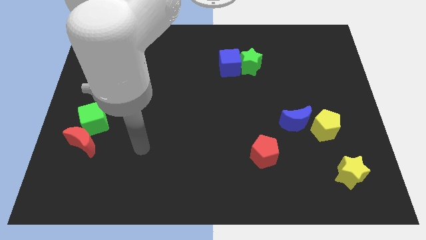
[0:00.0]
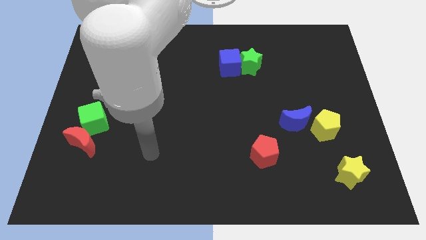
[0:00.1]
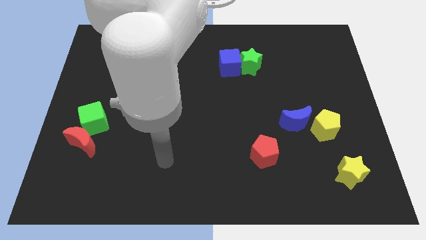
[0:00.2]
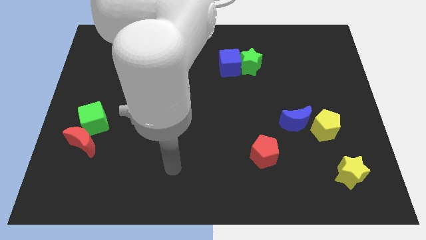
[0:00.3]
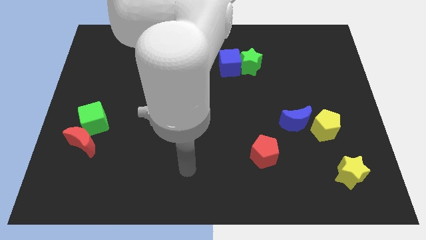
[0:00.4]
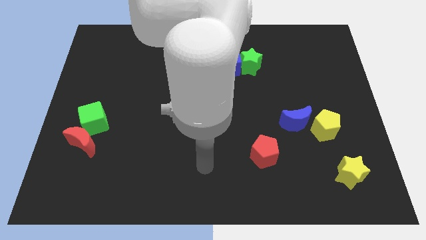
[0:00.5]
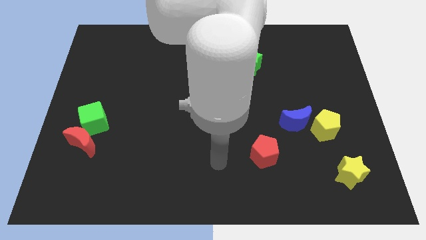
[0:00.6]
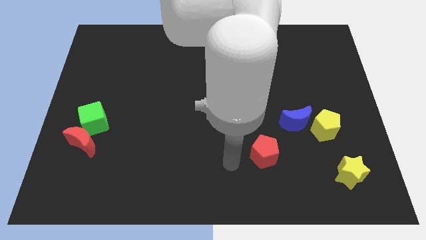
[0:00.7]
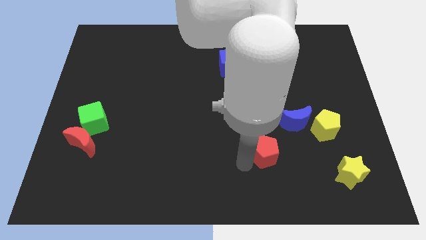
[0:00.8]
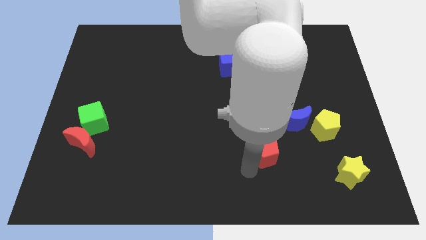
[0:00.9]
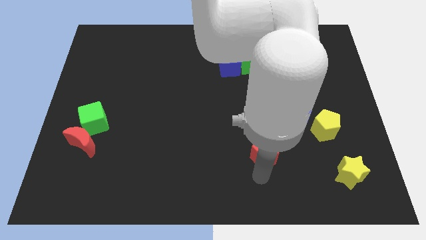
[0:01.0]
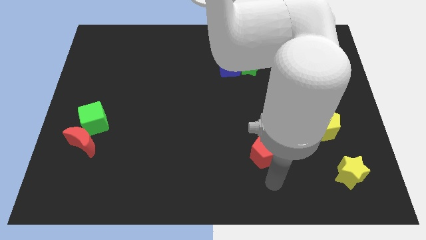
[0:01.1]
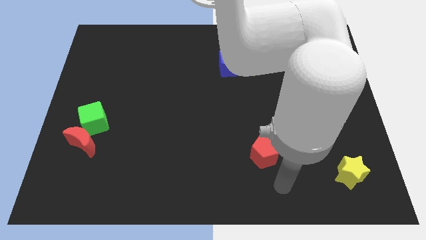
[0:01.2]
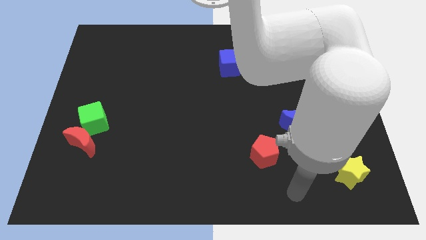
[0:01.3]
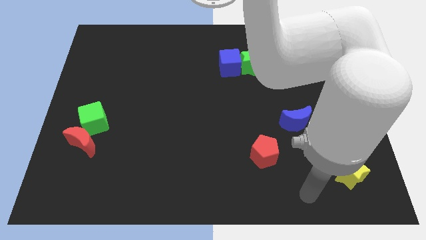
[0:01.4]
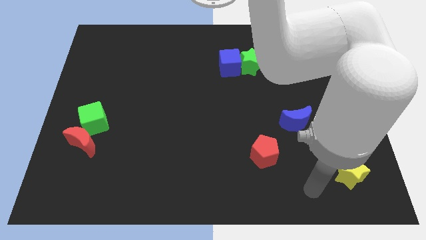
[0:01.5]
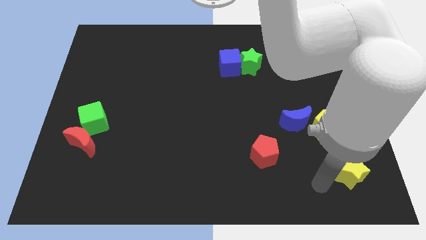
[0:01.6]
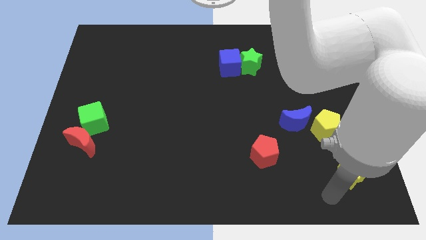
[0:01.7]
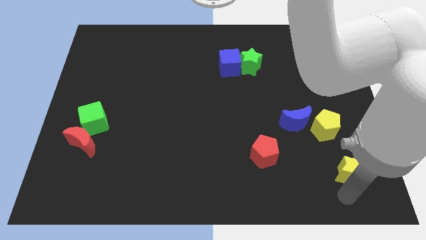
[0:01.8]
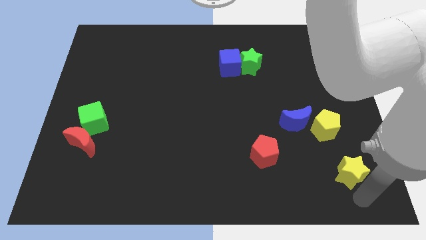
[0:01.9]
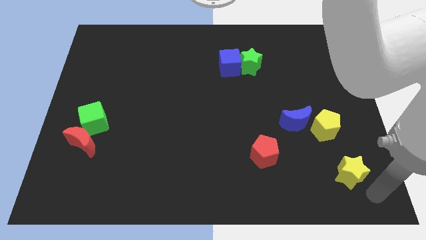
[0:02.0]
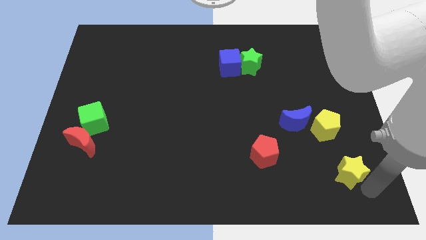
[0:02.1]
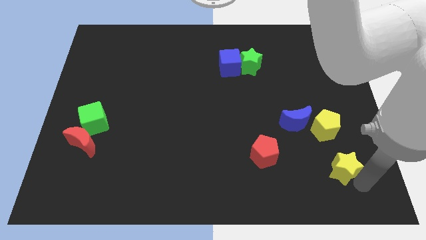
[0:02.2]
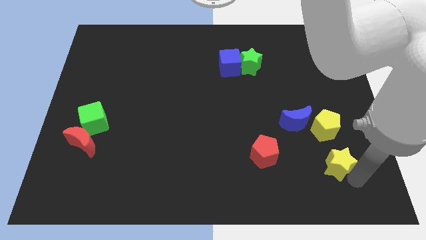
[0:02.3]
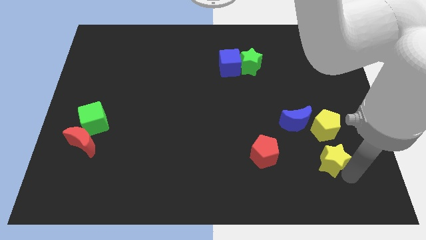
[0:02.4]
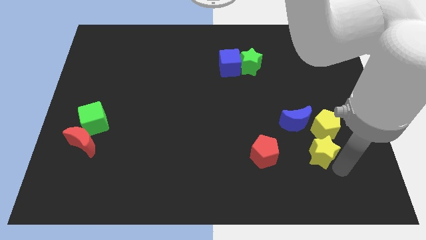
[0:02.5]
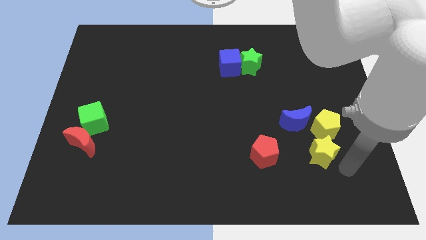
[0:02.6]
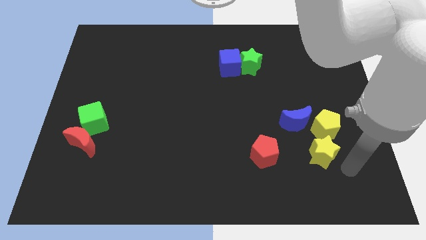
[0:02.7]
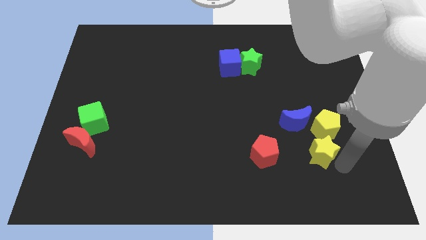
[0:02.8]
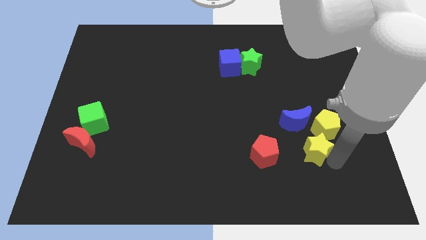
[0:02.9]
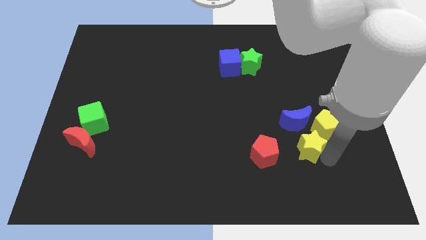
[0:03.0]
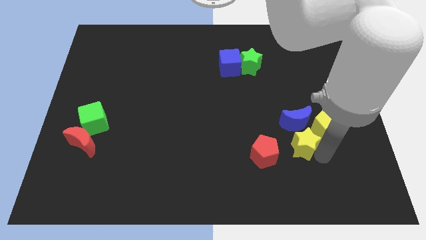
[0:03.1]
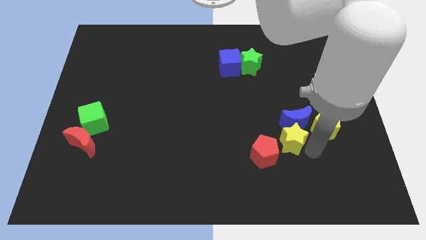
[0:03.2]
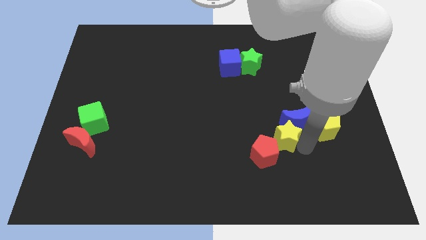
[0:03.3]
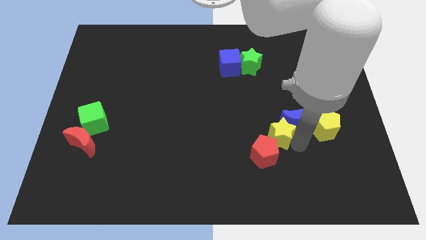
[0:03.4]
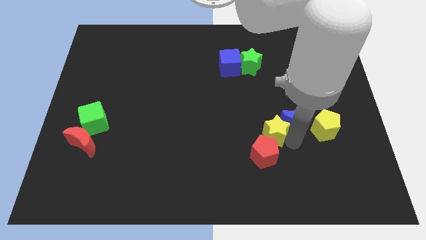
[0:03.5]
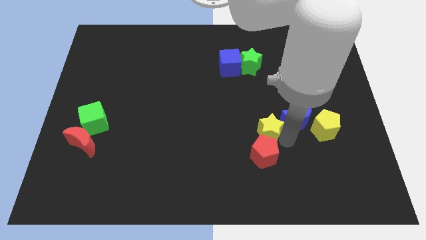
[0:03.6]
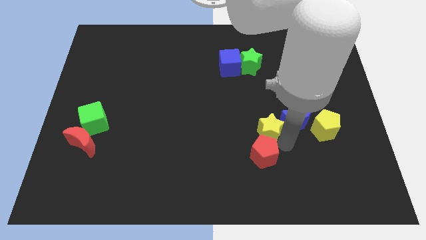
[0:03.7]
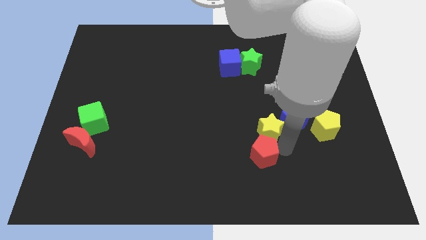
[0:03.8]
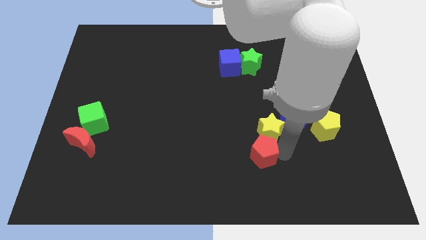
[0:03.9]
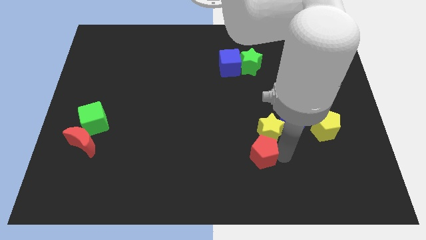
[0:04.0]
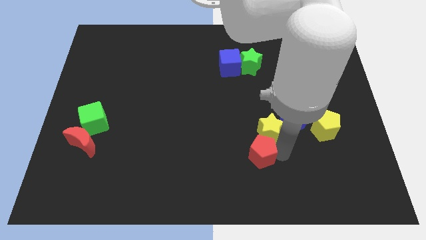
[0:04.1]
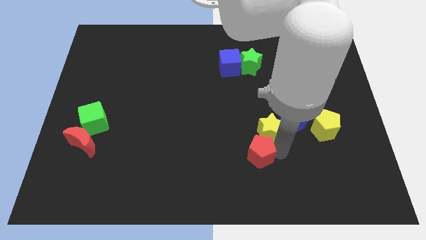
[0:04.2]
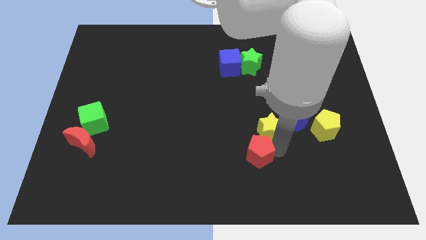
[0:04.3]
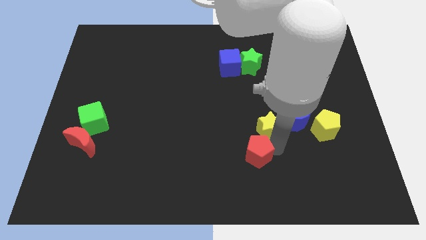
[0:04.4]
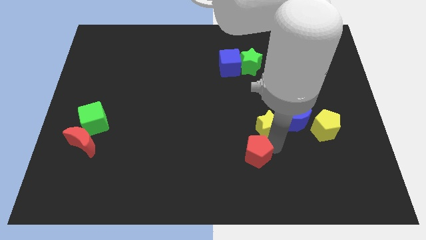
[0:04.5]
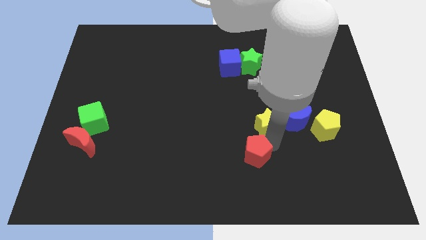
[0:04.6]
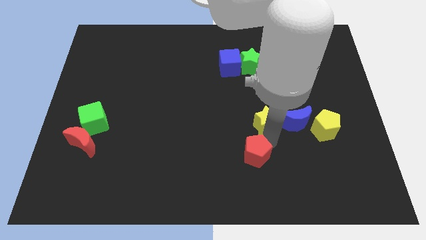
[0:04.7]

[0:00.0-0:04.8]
move the yellow star upwards and left diagonally

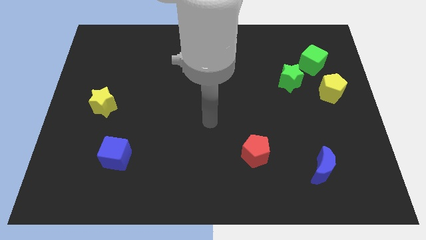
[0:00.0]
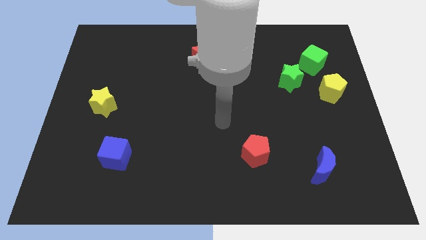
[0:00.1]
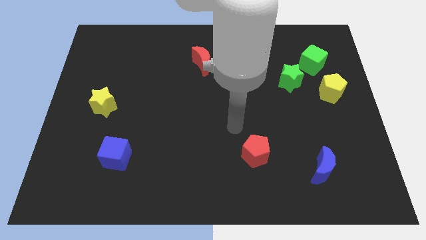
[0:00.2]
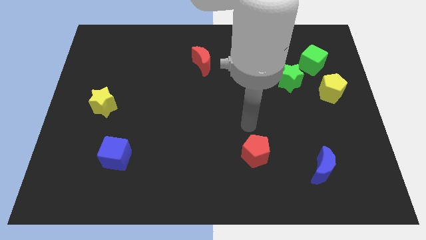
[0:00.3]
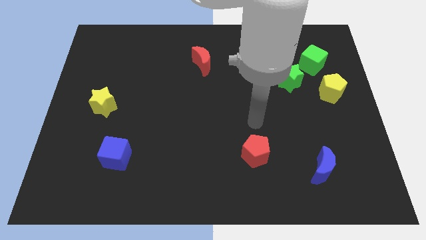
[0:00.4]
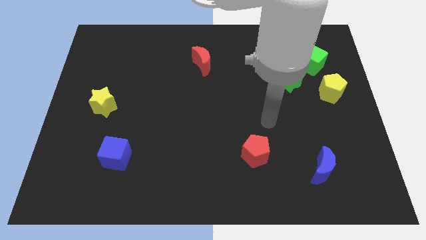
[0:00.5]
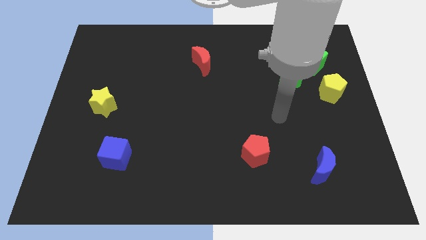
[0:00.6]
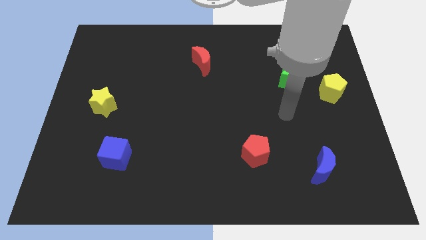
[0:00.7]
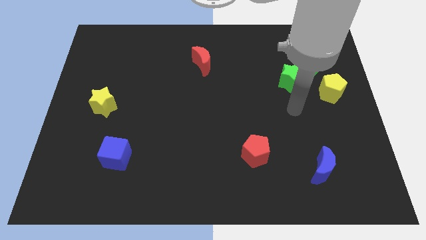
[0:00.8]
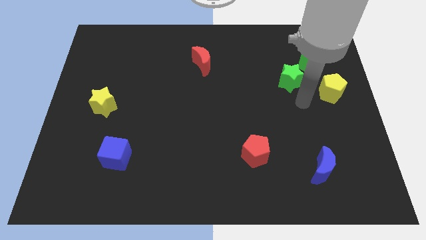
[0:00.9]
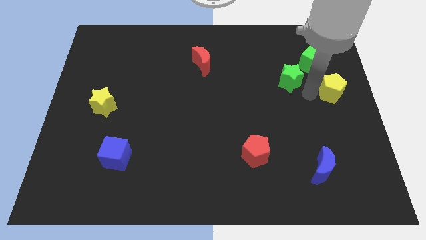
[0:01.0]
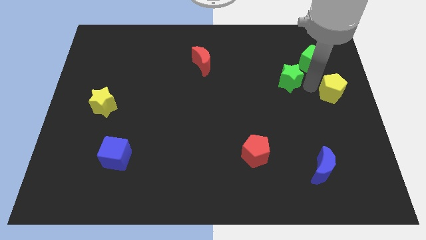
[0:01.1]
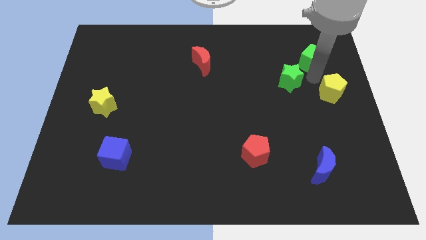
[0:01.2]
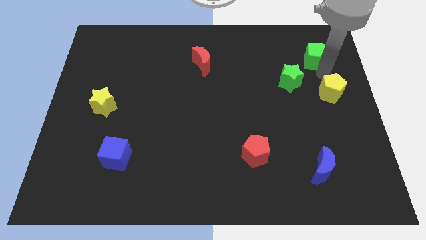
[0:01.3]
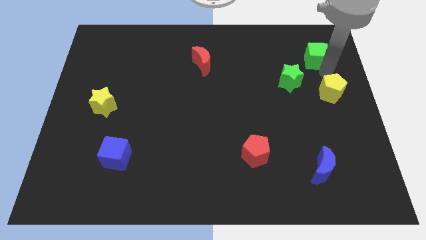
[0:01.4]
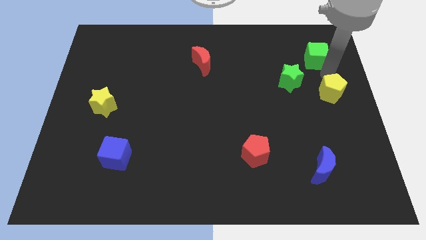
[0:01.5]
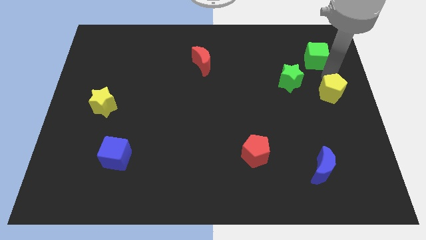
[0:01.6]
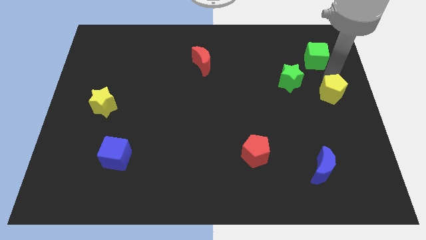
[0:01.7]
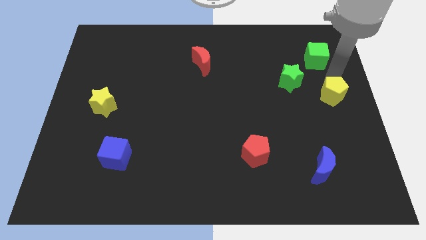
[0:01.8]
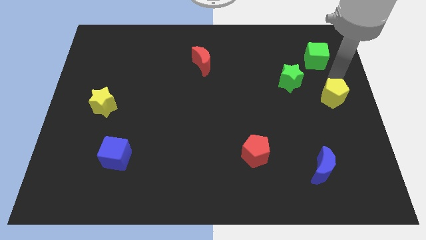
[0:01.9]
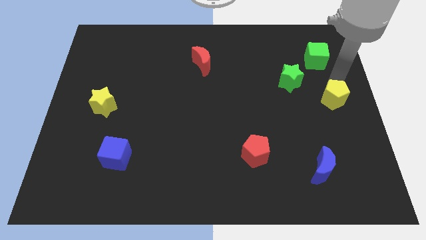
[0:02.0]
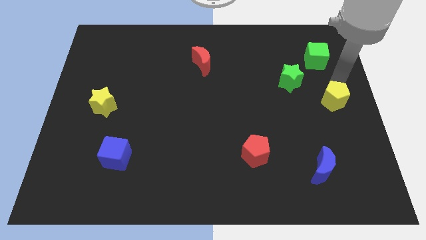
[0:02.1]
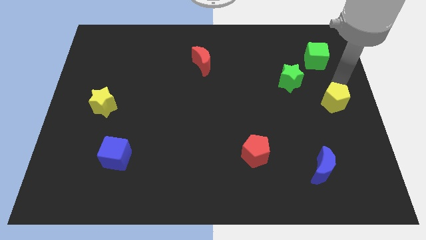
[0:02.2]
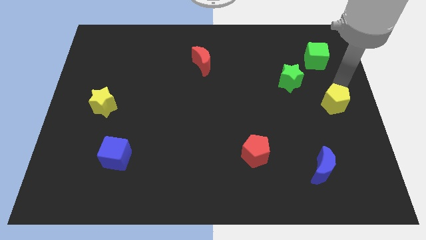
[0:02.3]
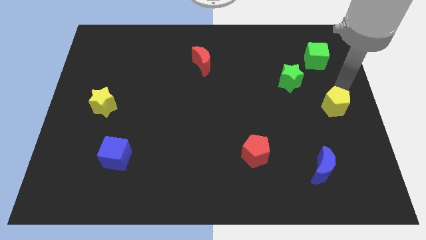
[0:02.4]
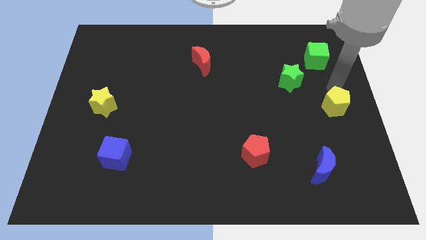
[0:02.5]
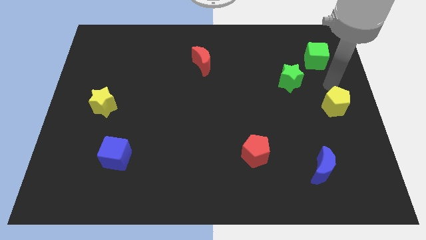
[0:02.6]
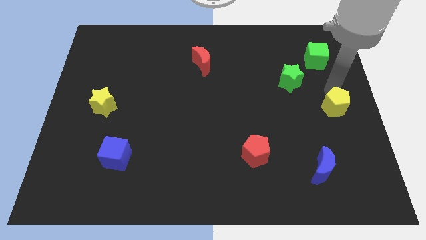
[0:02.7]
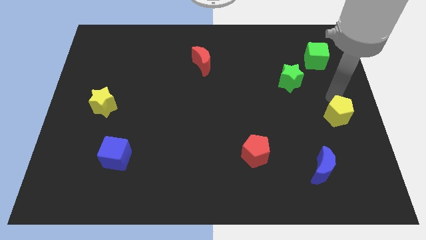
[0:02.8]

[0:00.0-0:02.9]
move the yellow pentagon down a little

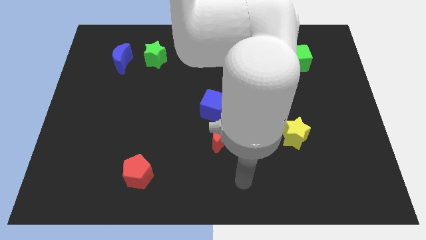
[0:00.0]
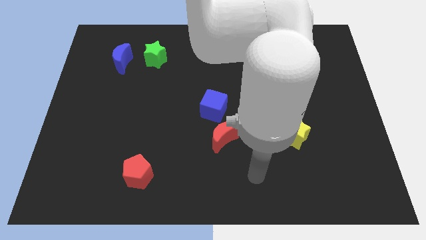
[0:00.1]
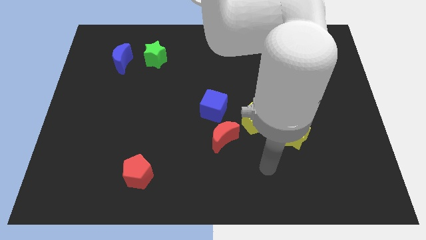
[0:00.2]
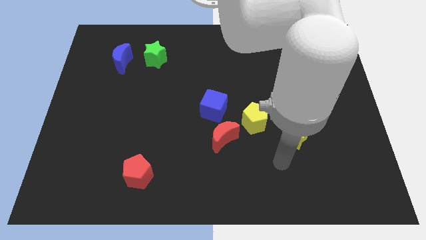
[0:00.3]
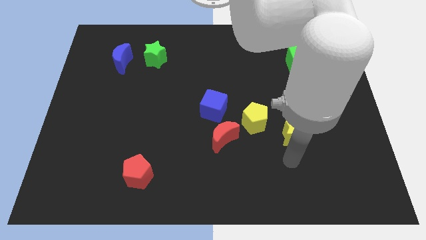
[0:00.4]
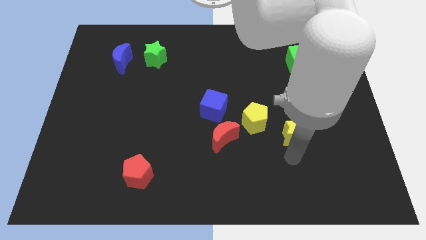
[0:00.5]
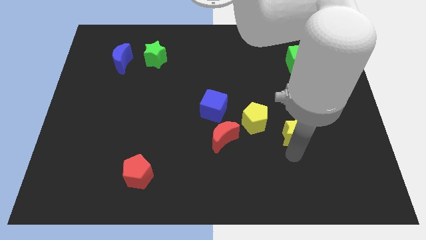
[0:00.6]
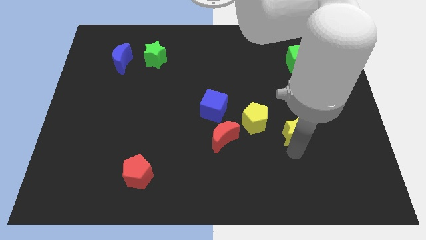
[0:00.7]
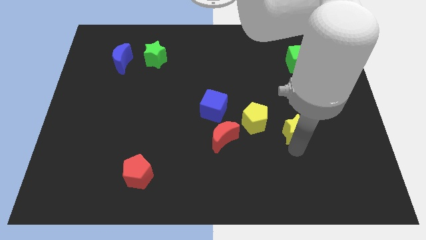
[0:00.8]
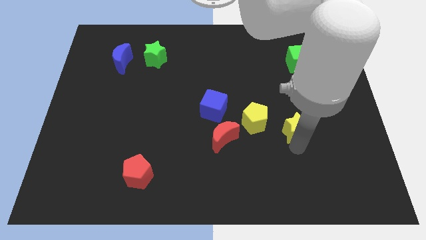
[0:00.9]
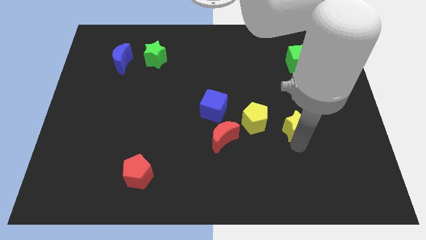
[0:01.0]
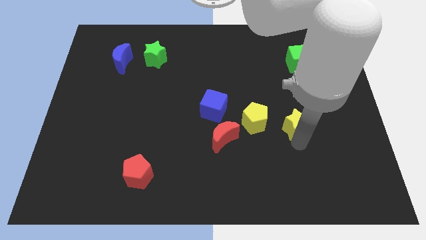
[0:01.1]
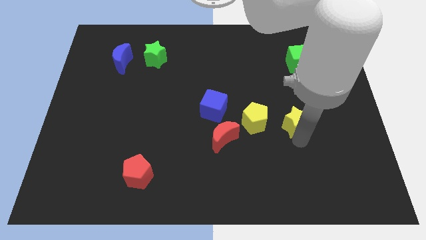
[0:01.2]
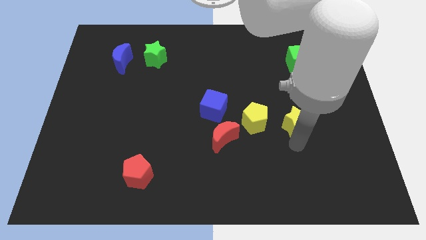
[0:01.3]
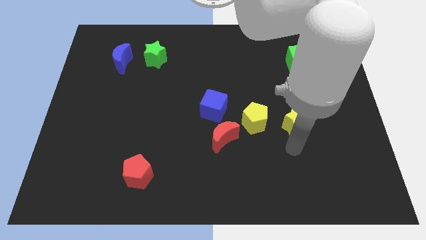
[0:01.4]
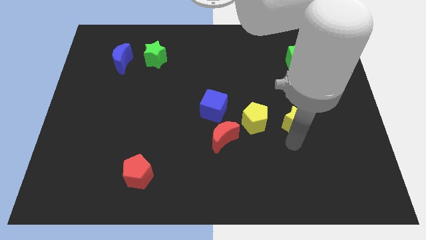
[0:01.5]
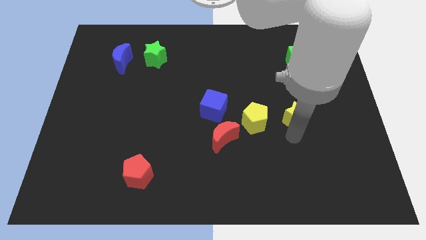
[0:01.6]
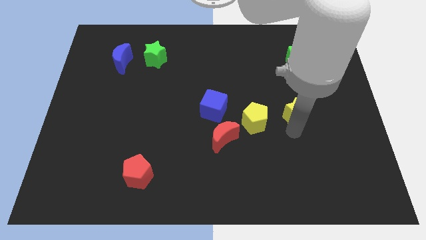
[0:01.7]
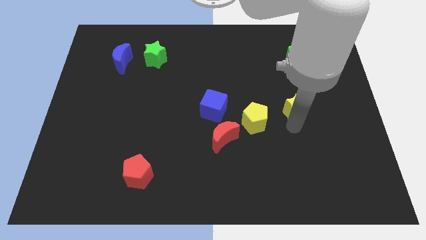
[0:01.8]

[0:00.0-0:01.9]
move the yellow star up a little bit
